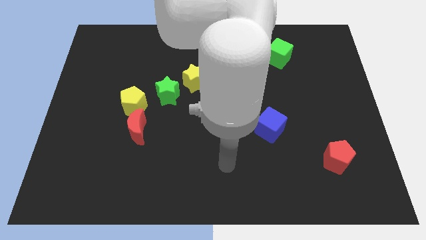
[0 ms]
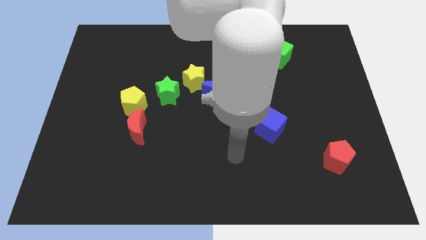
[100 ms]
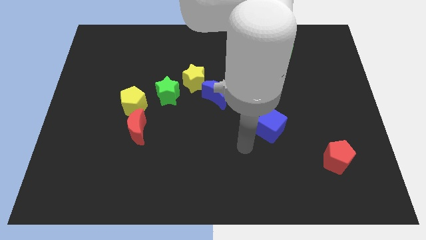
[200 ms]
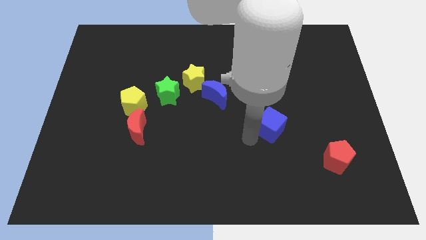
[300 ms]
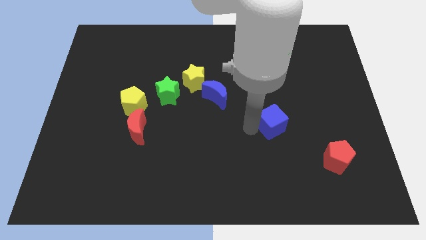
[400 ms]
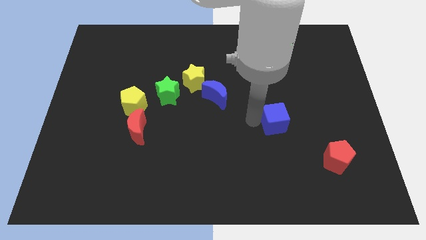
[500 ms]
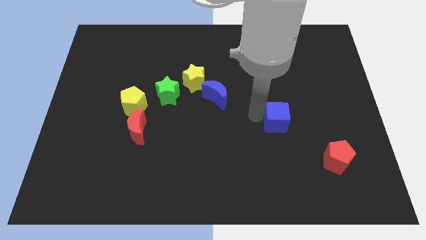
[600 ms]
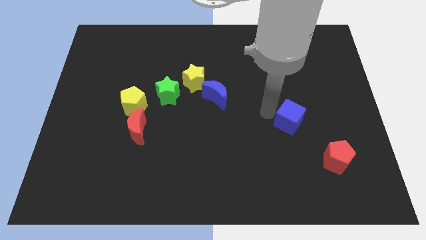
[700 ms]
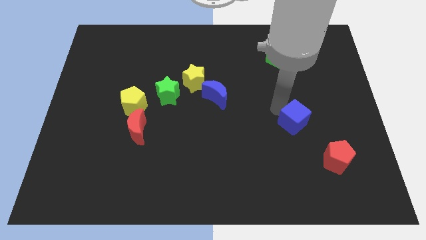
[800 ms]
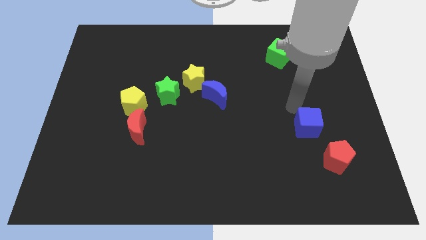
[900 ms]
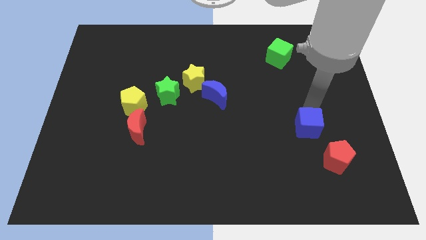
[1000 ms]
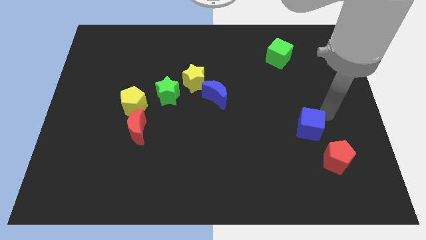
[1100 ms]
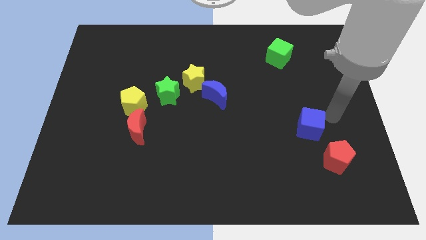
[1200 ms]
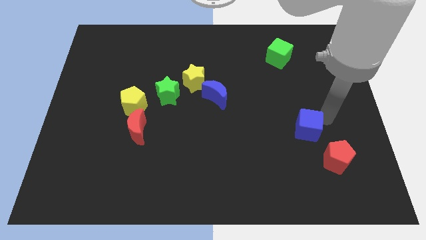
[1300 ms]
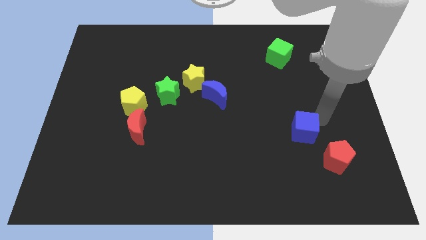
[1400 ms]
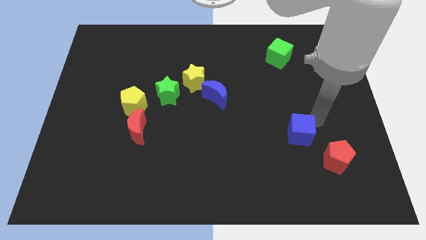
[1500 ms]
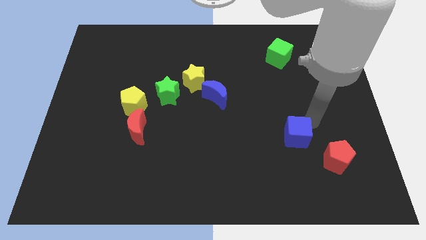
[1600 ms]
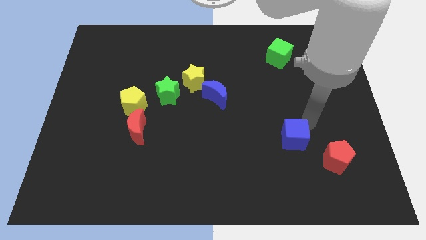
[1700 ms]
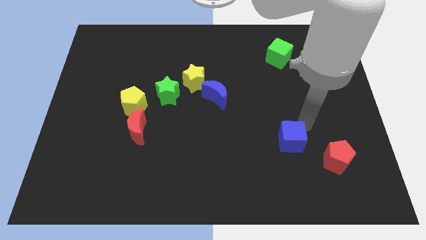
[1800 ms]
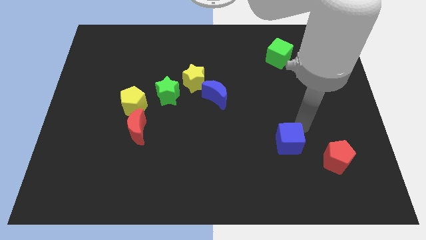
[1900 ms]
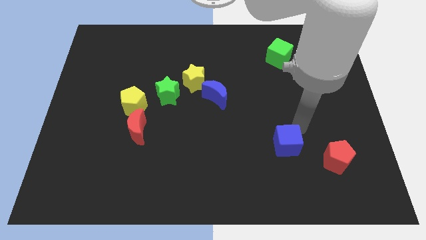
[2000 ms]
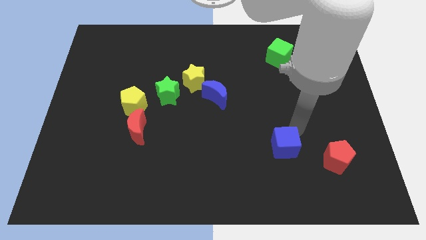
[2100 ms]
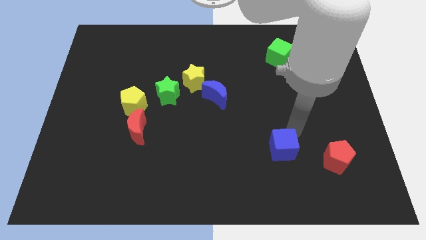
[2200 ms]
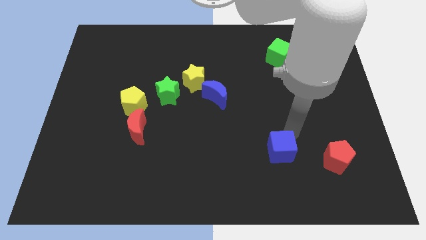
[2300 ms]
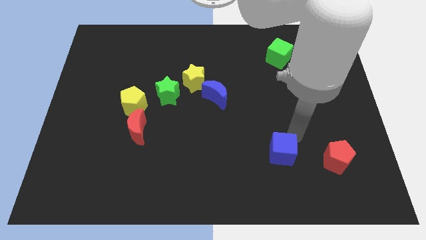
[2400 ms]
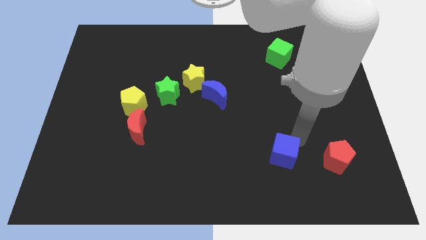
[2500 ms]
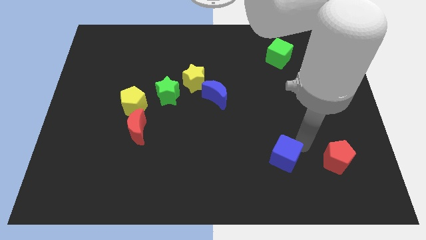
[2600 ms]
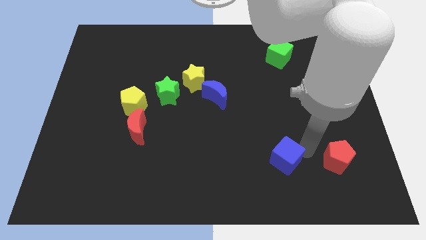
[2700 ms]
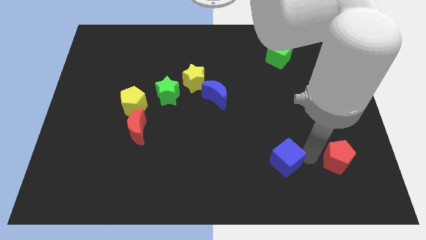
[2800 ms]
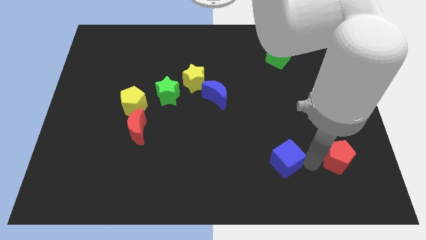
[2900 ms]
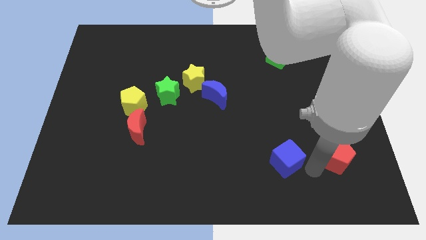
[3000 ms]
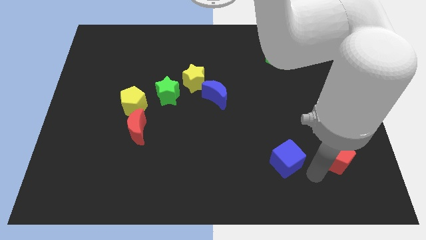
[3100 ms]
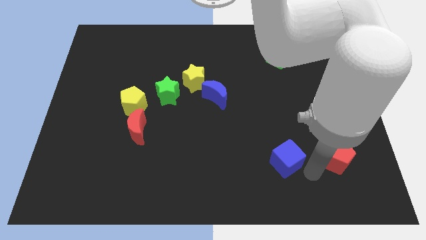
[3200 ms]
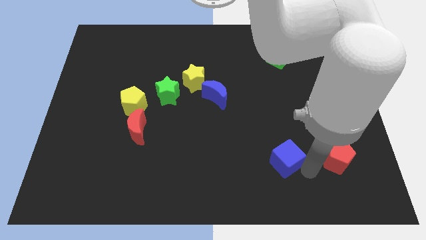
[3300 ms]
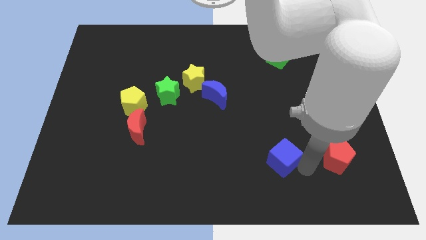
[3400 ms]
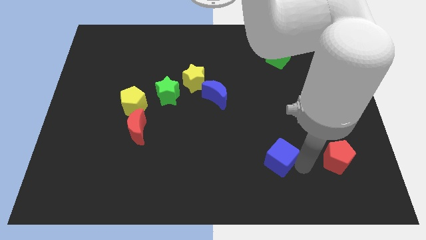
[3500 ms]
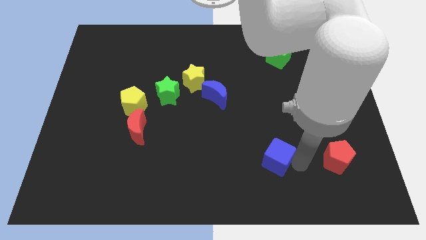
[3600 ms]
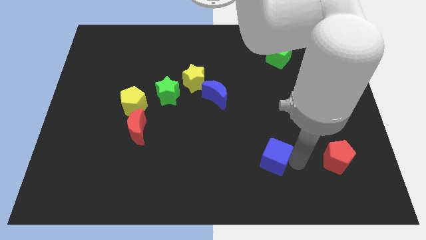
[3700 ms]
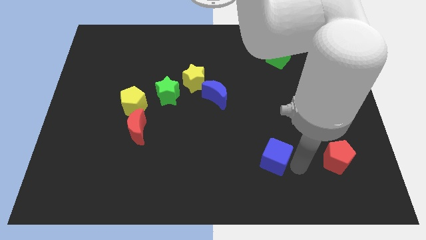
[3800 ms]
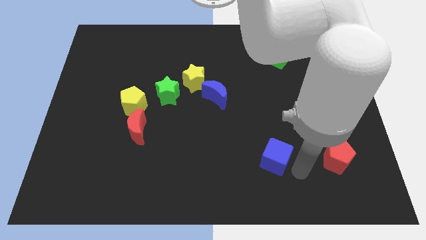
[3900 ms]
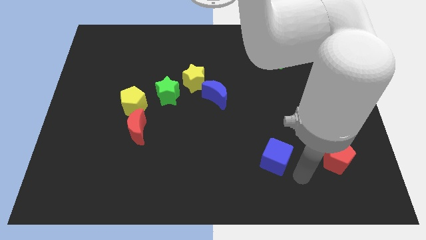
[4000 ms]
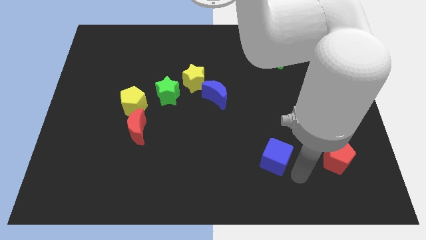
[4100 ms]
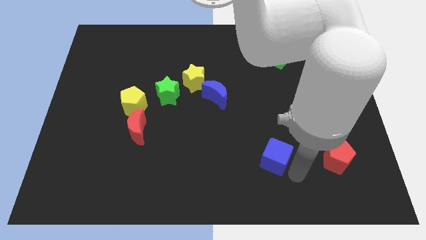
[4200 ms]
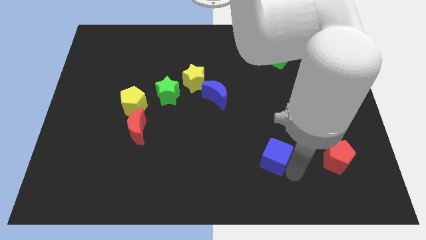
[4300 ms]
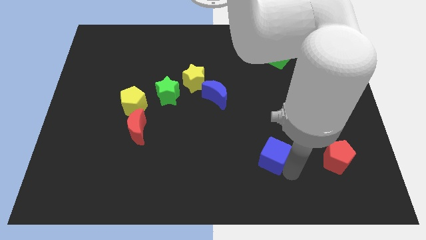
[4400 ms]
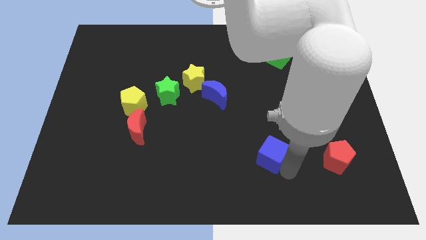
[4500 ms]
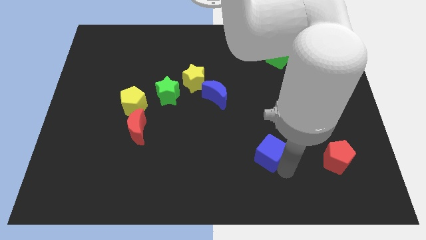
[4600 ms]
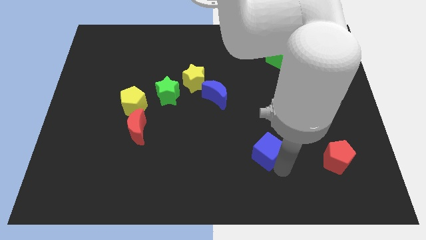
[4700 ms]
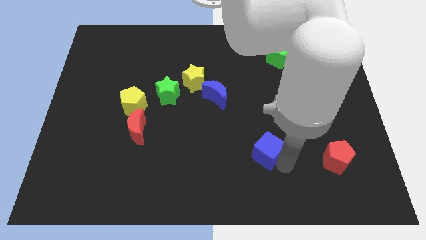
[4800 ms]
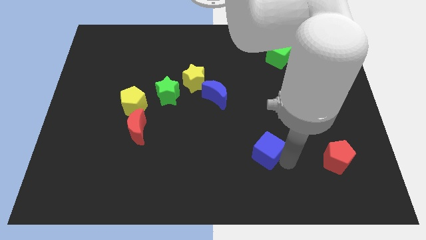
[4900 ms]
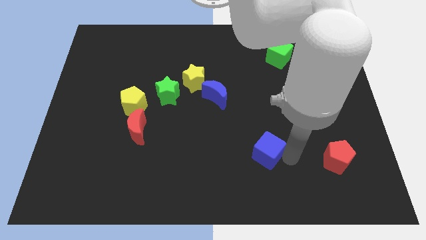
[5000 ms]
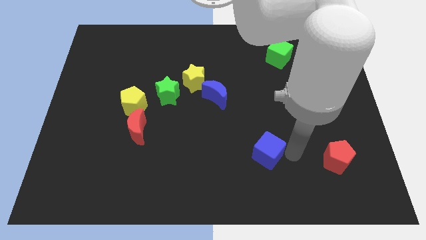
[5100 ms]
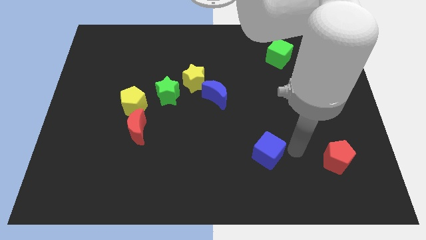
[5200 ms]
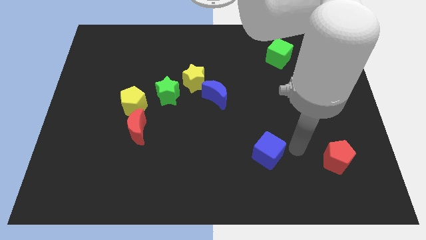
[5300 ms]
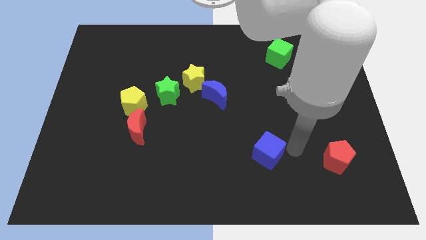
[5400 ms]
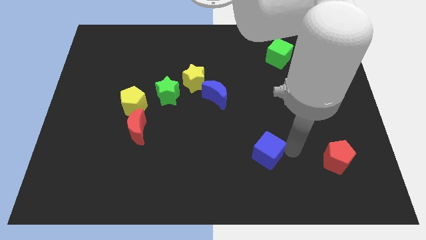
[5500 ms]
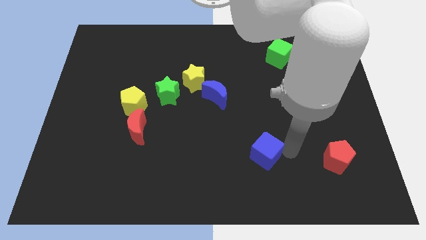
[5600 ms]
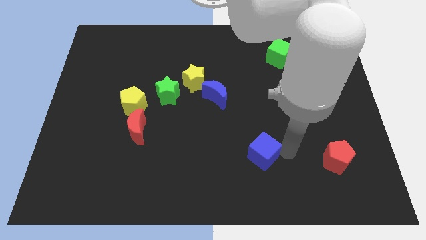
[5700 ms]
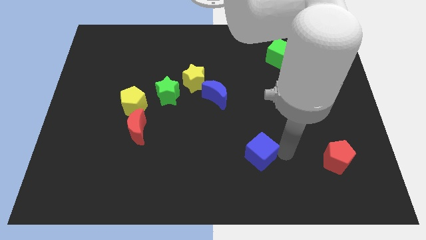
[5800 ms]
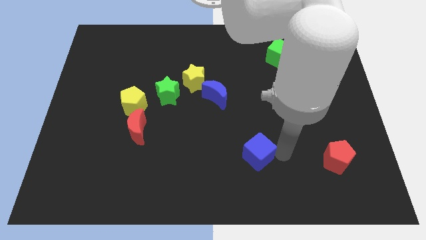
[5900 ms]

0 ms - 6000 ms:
slightly move the blue cube downwards and left diagonally

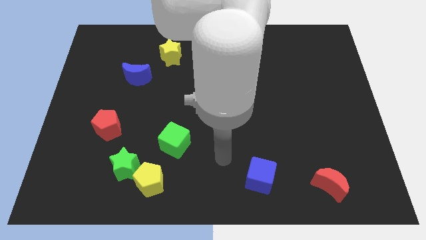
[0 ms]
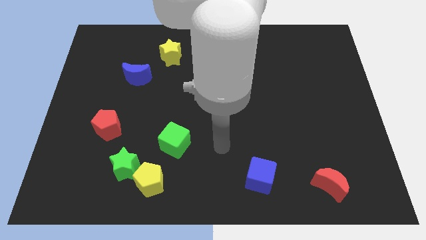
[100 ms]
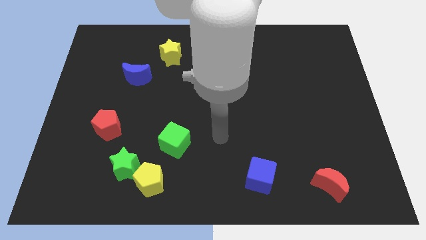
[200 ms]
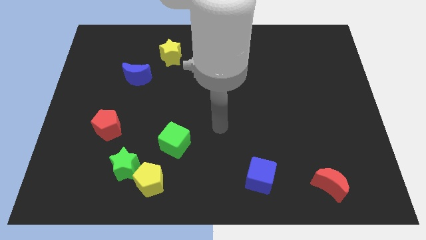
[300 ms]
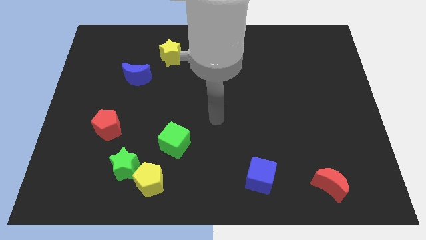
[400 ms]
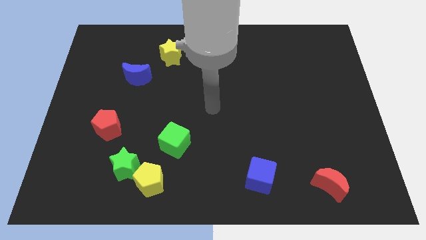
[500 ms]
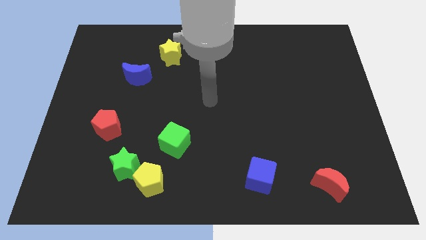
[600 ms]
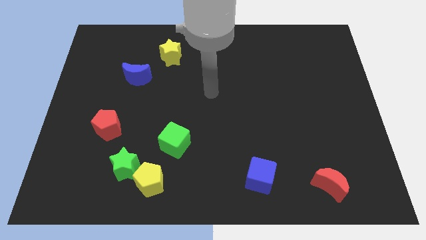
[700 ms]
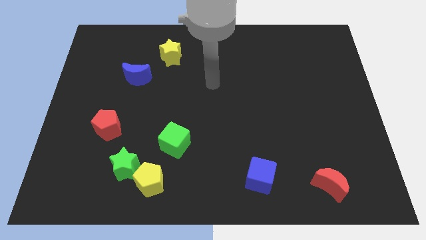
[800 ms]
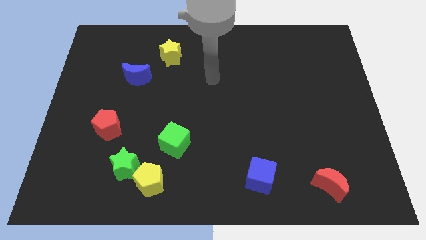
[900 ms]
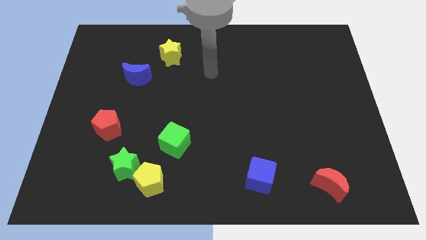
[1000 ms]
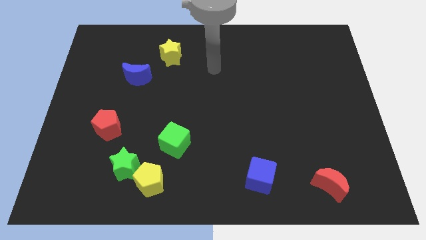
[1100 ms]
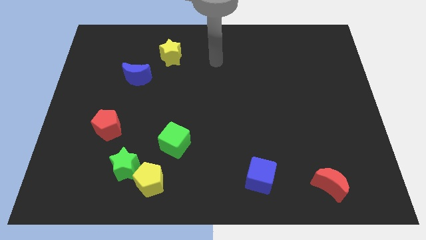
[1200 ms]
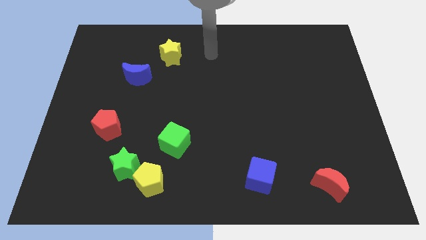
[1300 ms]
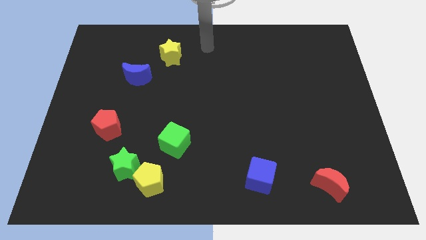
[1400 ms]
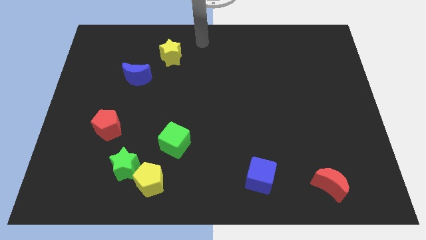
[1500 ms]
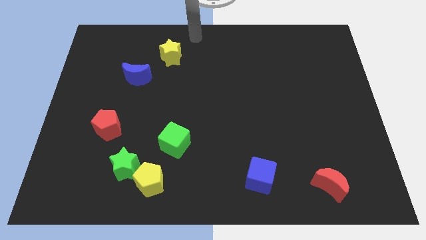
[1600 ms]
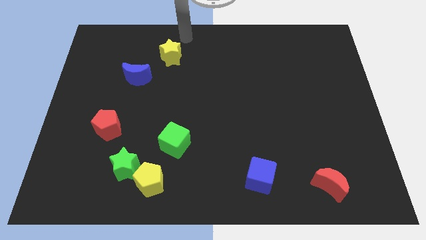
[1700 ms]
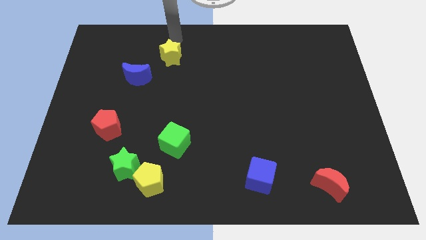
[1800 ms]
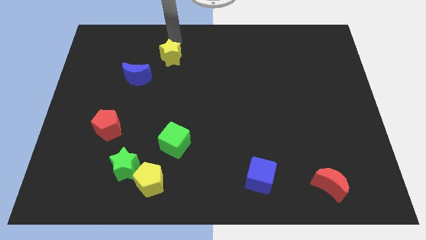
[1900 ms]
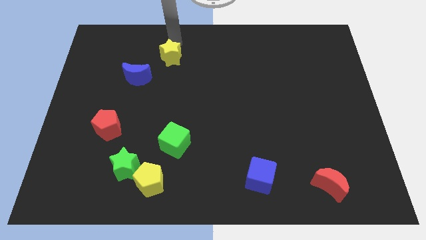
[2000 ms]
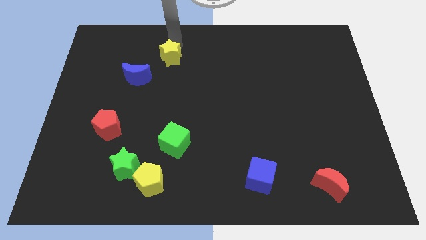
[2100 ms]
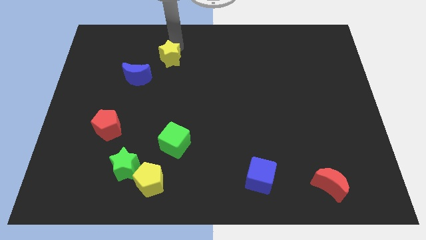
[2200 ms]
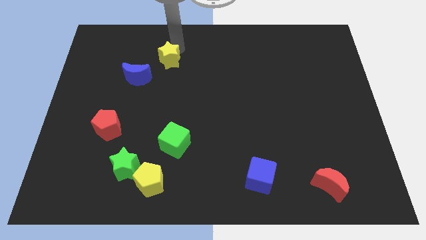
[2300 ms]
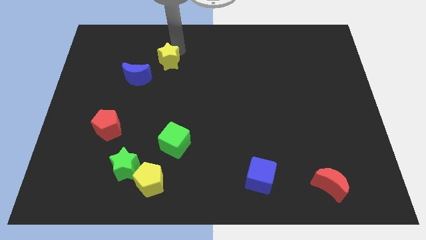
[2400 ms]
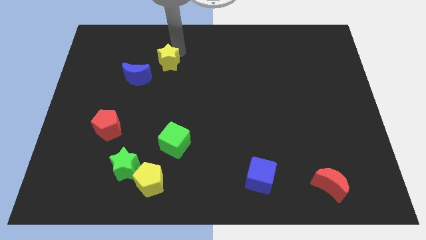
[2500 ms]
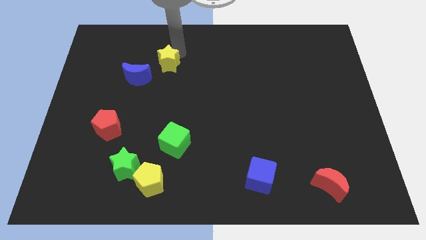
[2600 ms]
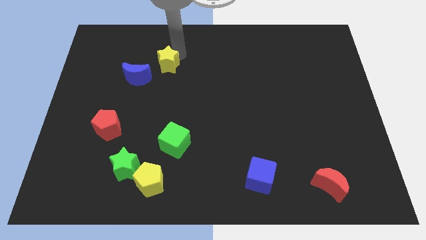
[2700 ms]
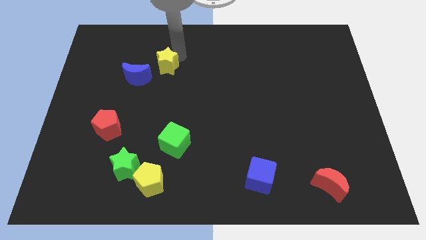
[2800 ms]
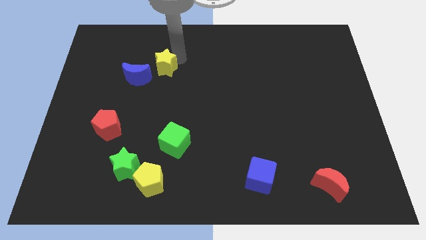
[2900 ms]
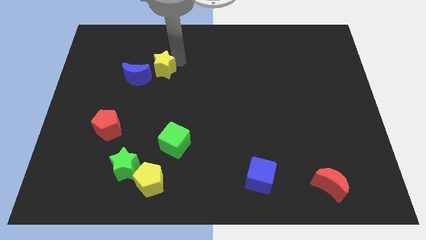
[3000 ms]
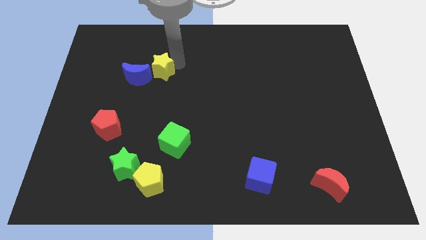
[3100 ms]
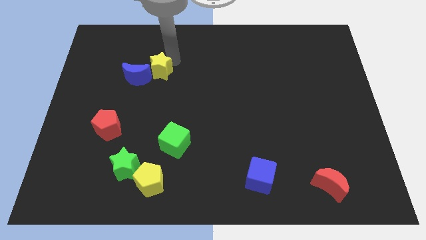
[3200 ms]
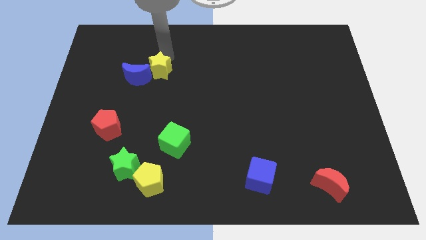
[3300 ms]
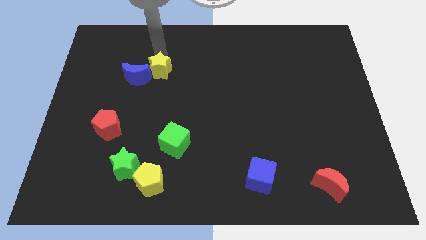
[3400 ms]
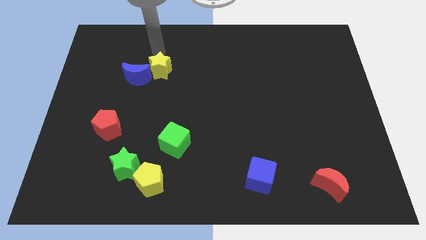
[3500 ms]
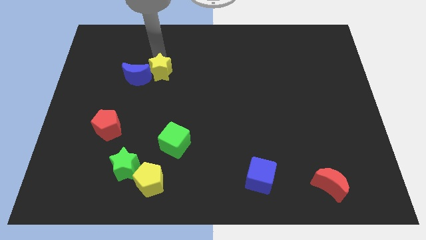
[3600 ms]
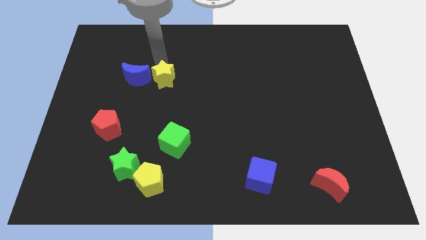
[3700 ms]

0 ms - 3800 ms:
slide the yellow star a bit down
